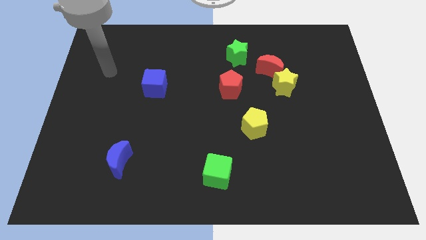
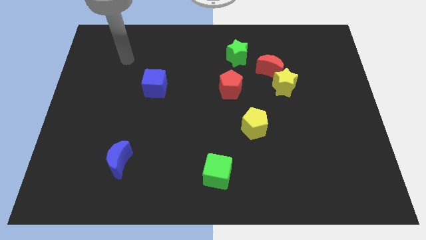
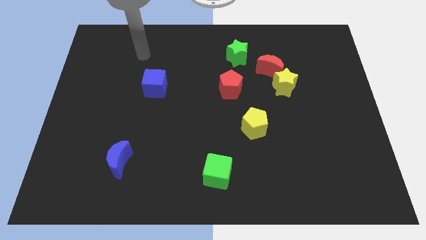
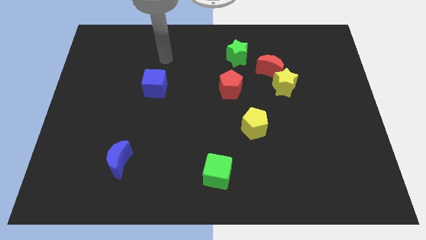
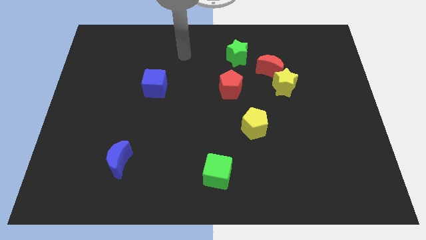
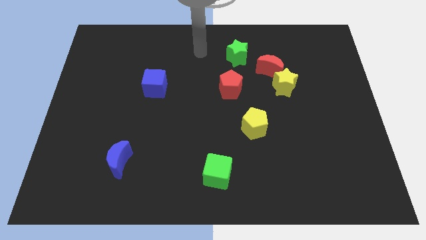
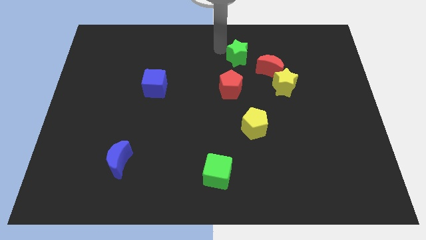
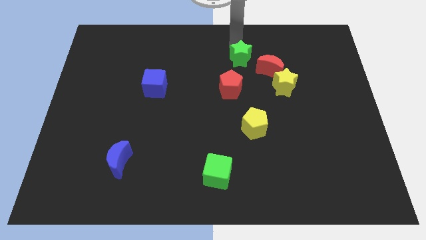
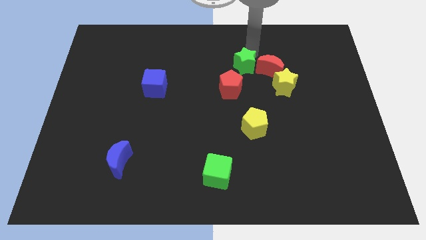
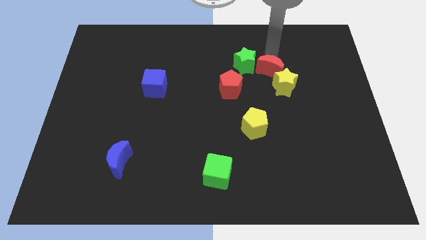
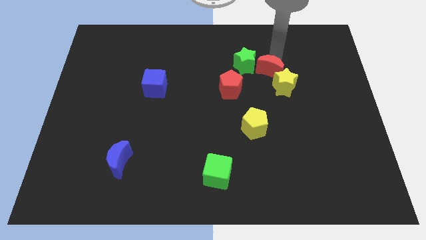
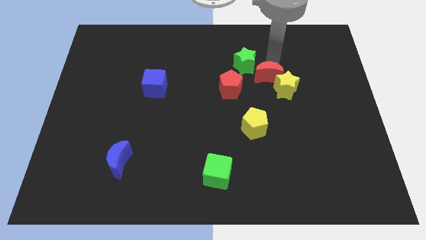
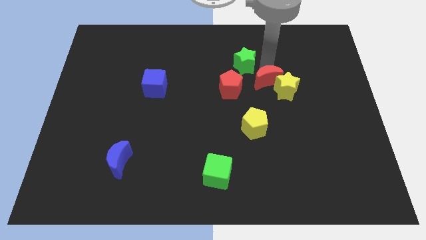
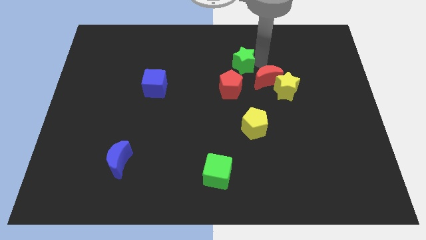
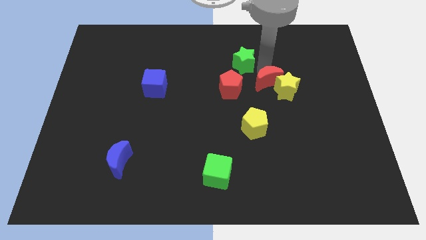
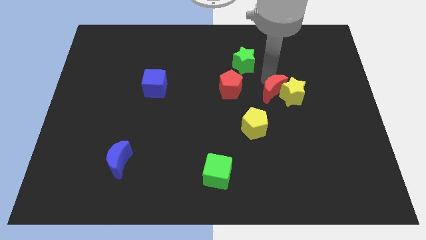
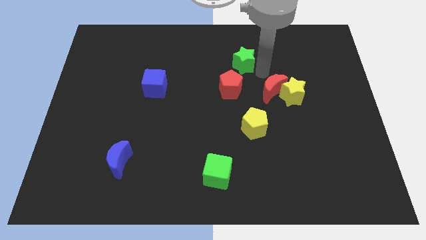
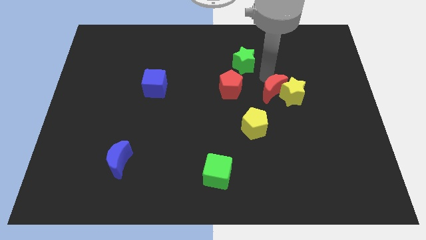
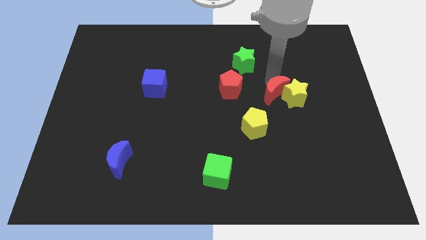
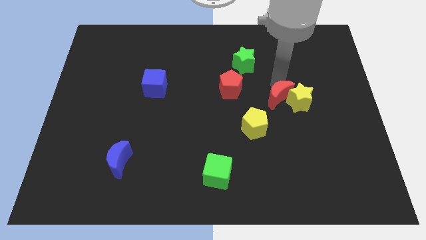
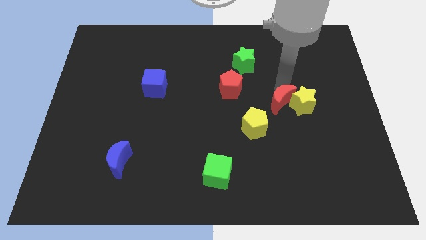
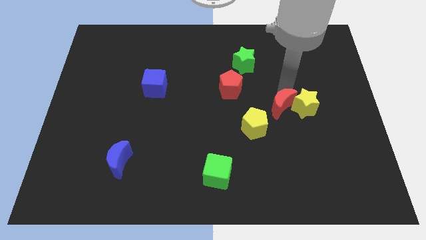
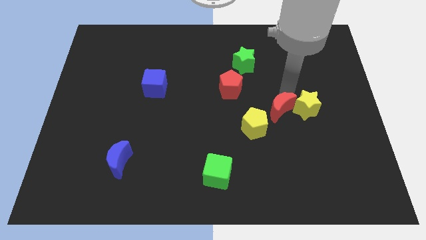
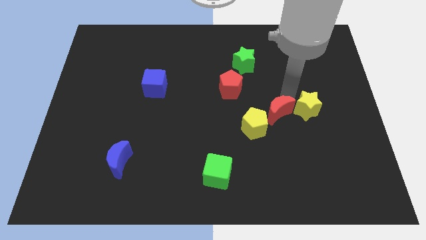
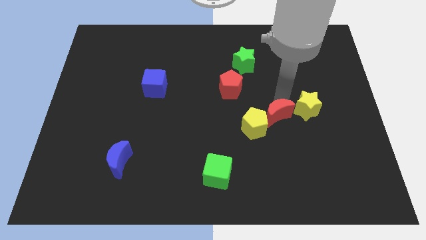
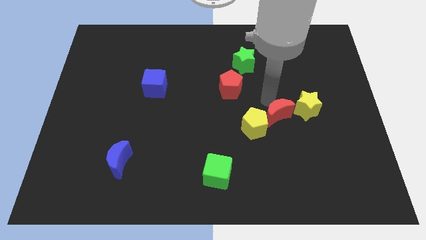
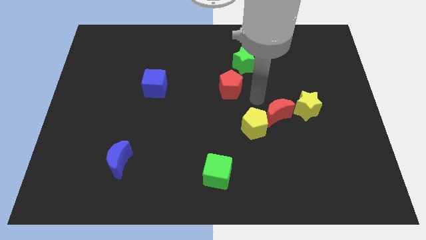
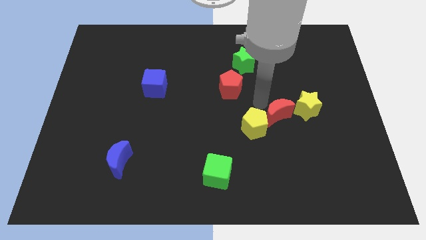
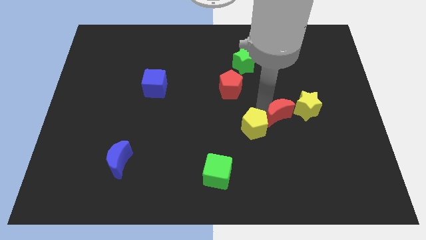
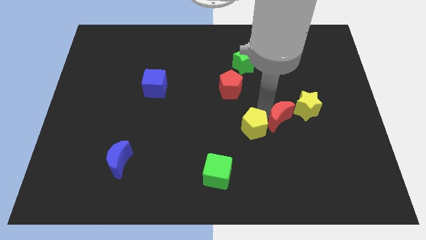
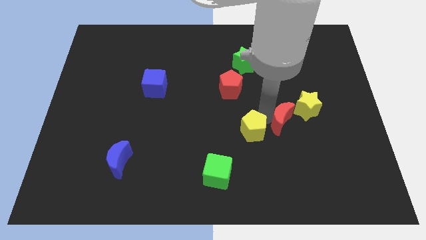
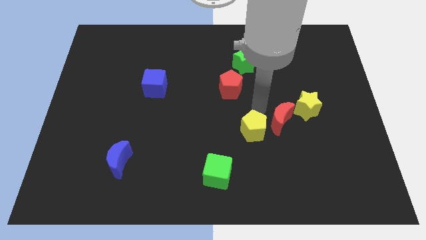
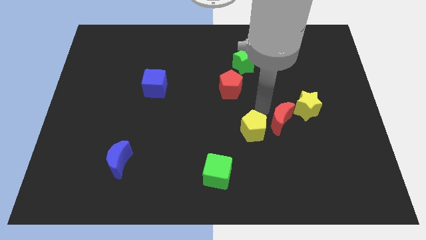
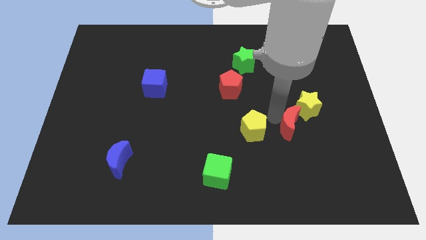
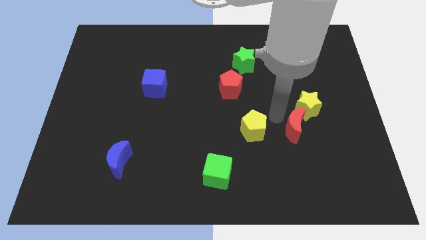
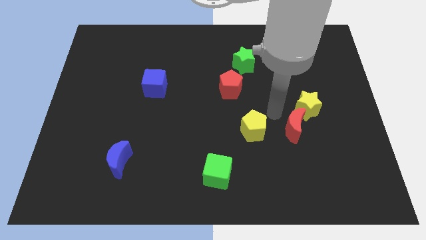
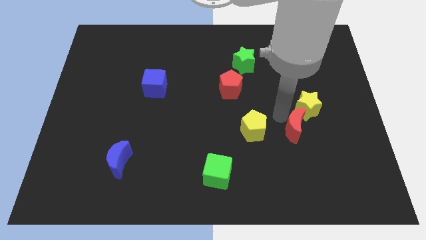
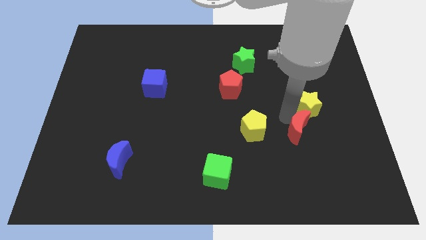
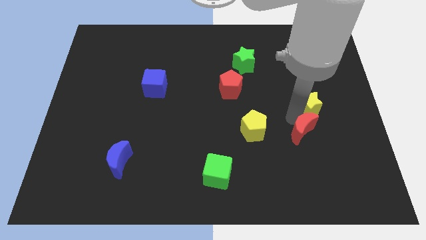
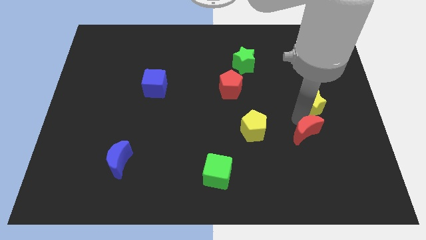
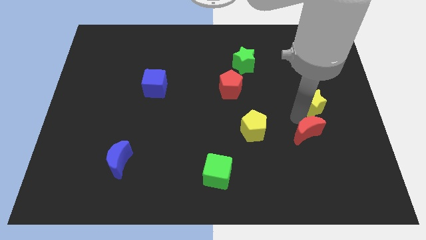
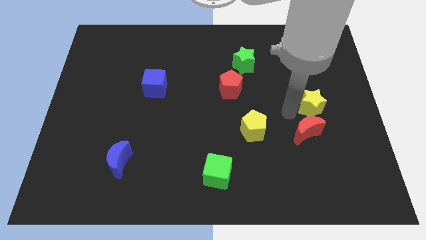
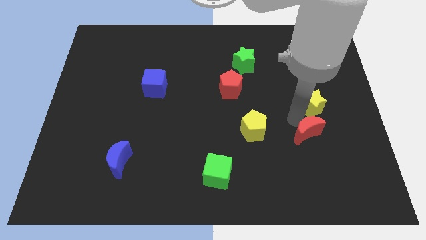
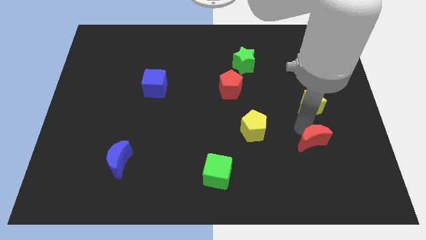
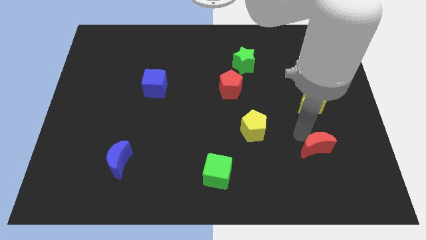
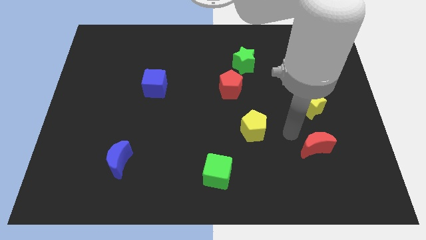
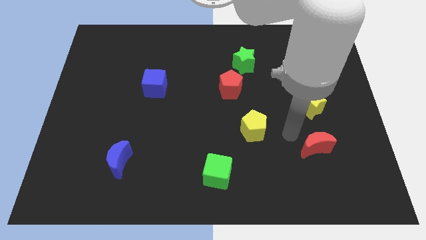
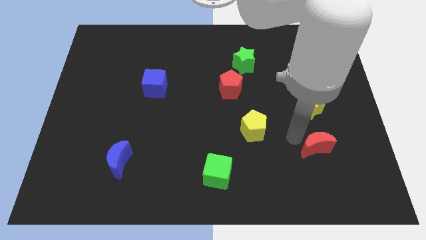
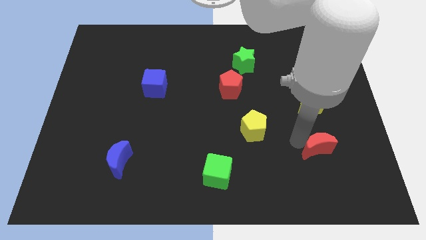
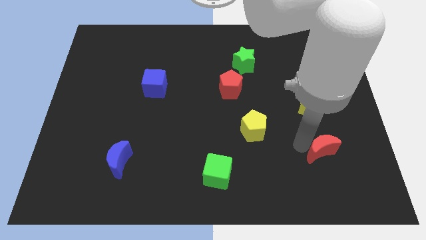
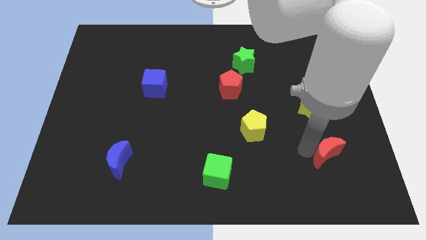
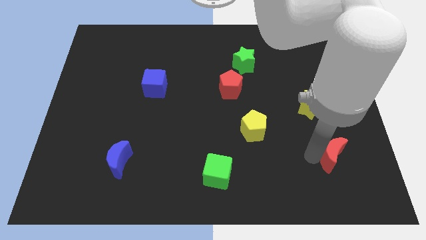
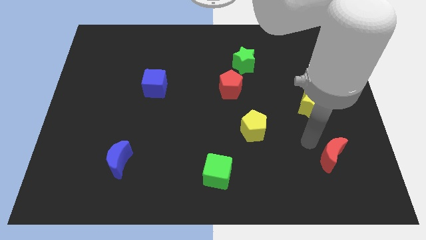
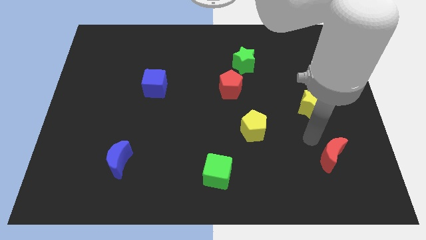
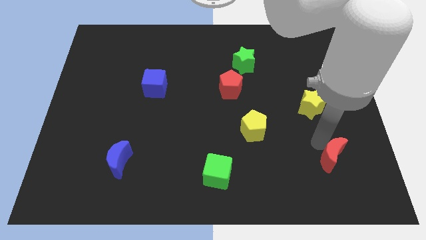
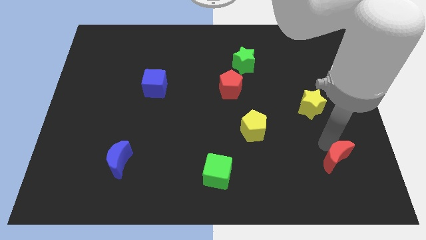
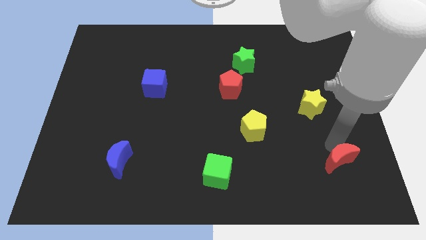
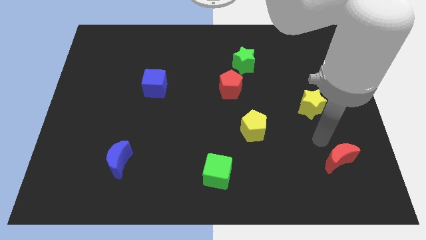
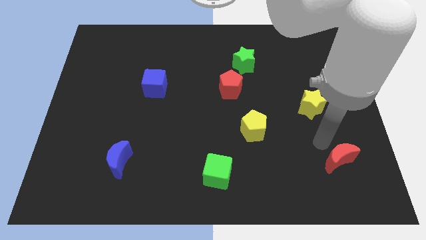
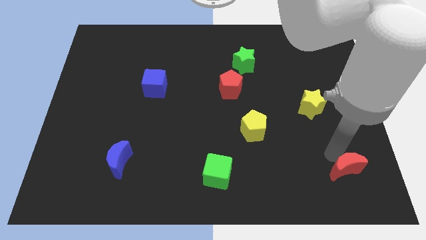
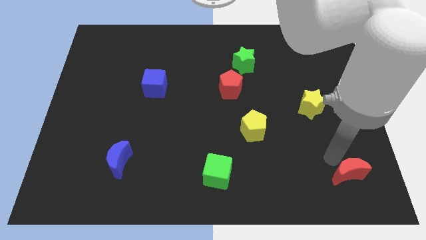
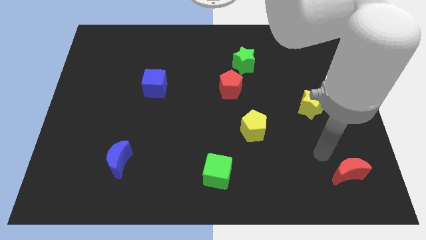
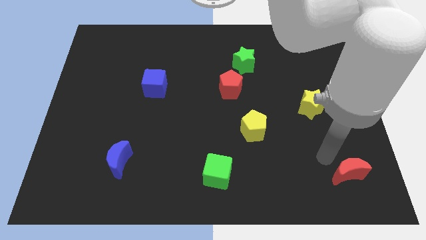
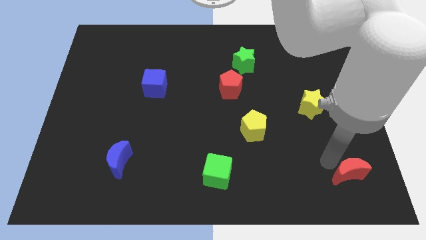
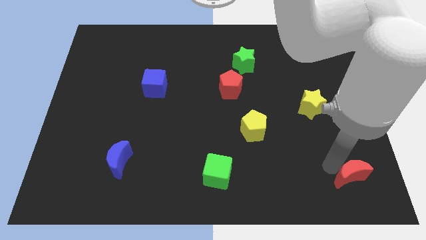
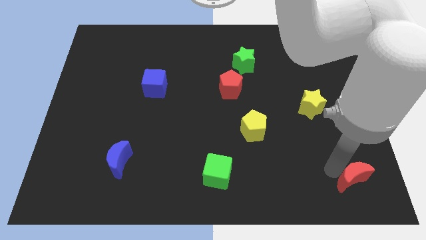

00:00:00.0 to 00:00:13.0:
move the red moon to the lower right corner

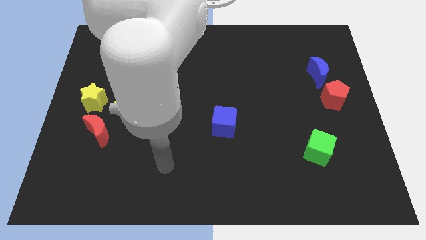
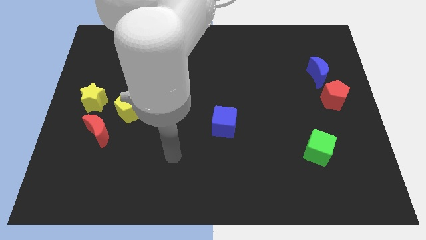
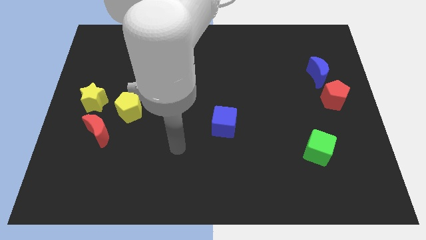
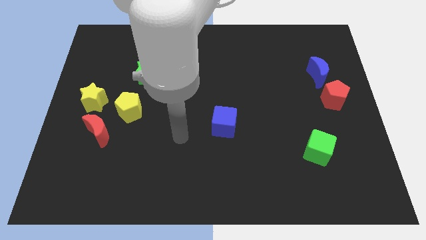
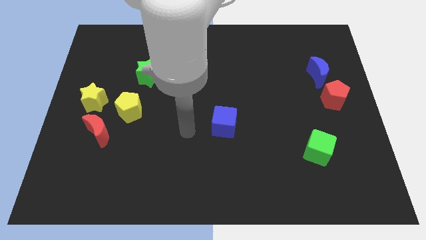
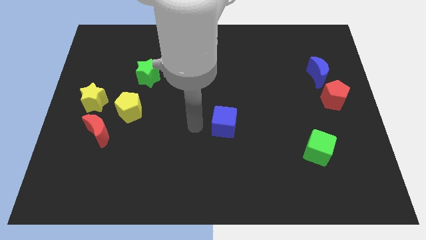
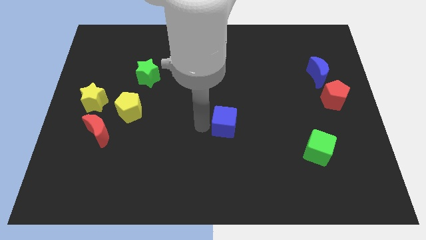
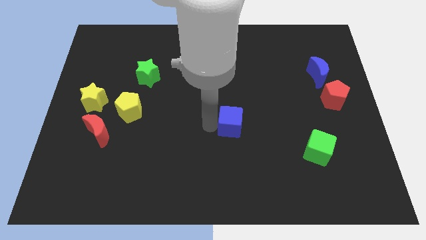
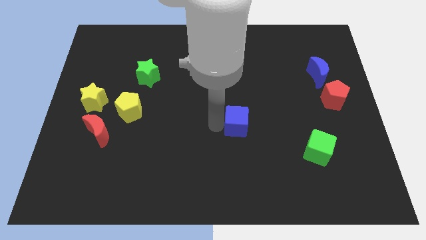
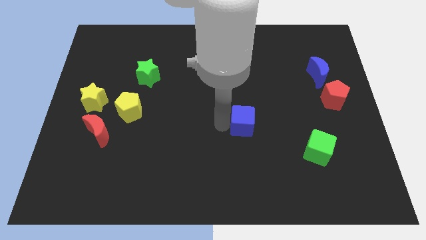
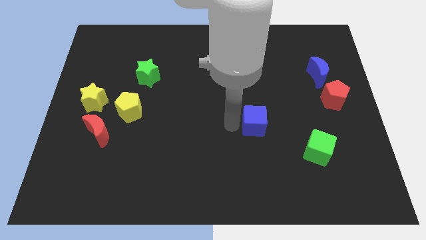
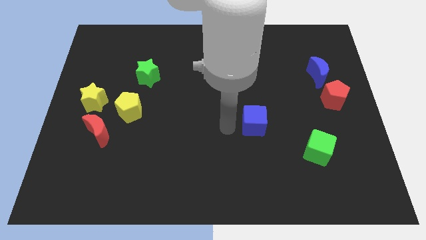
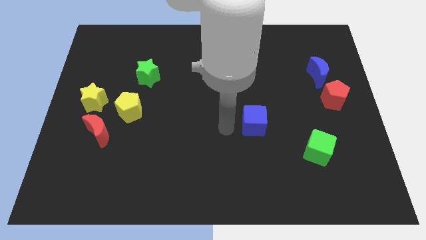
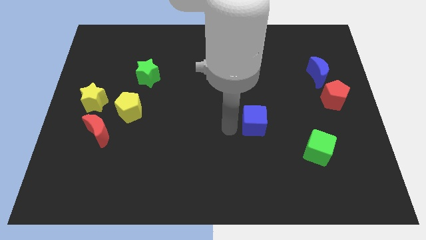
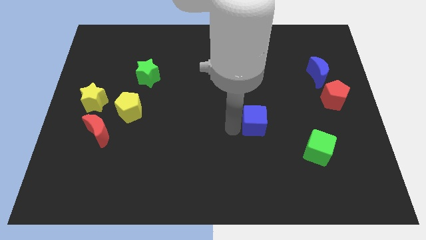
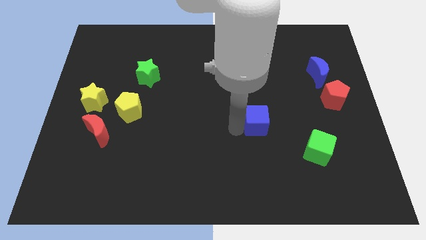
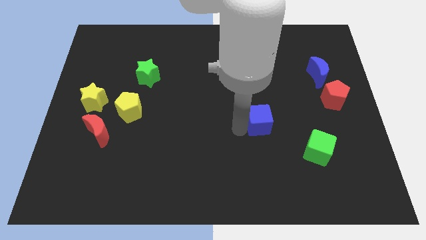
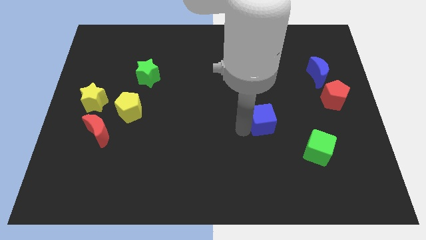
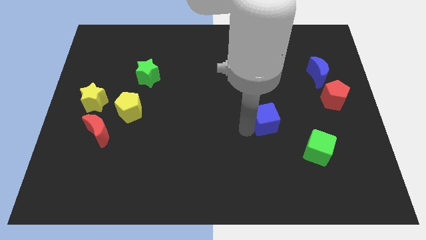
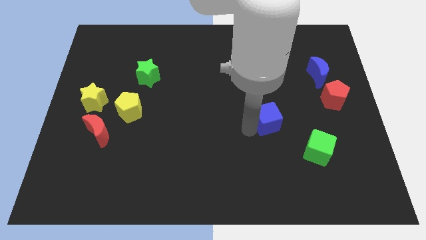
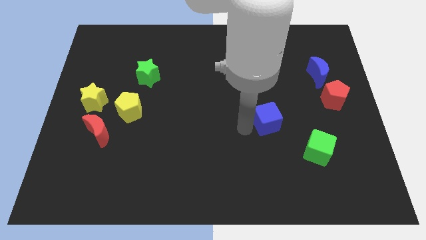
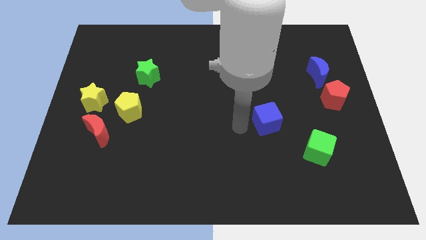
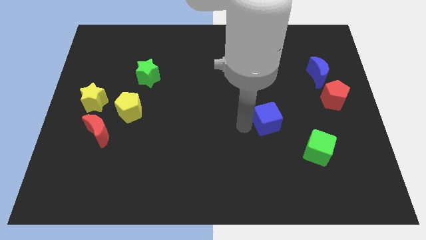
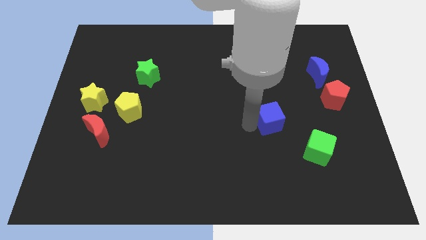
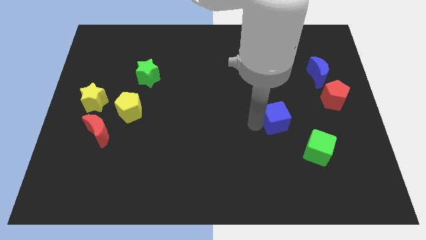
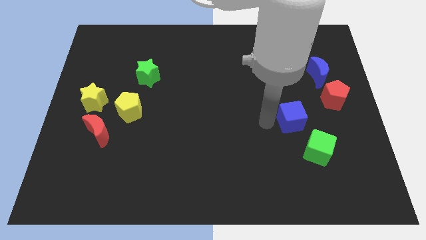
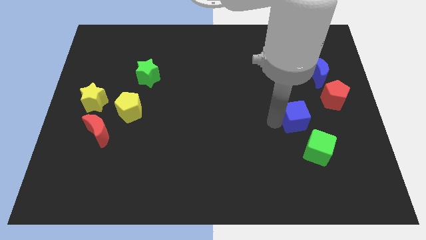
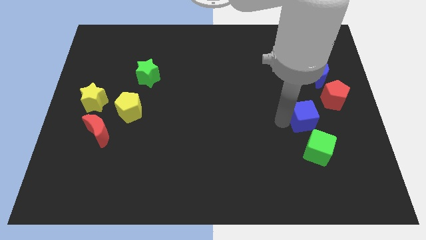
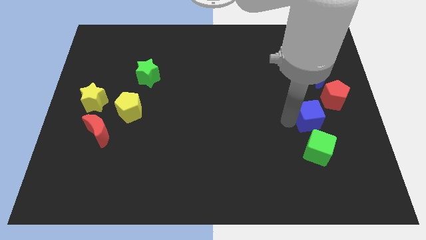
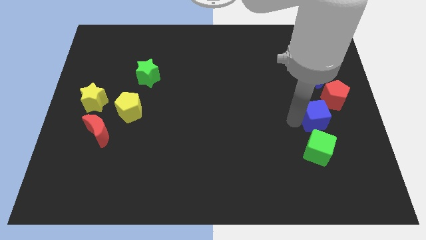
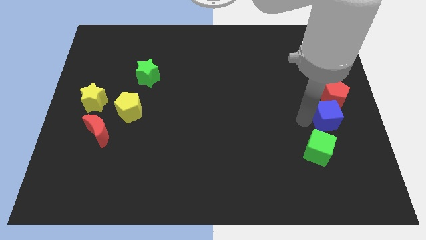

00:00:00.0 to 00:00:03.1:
put the blue cube to the right side
